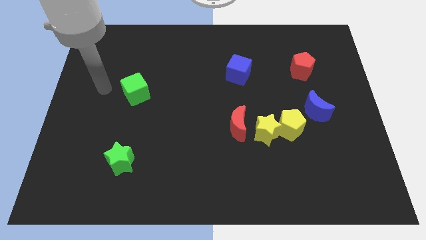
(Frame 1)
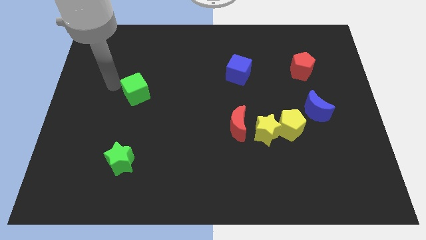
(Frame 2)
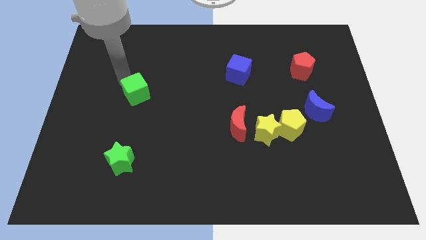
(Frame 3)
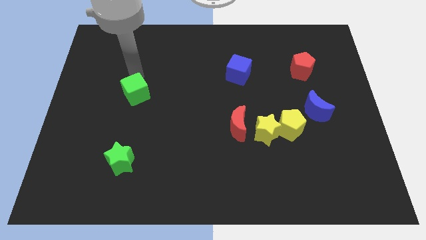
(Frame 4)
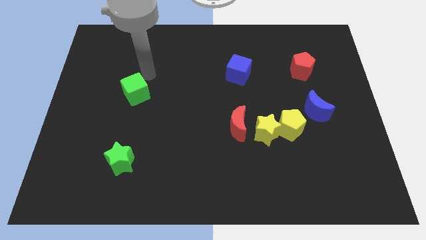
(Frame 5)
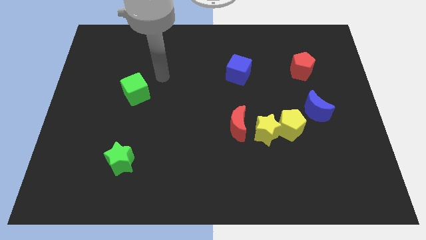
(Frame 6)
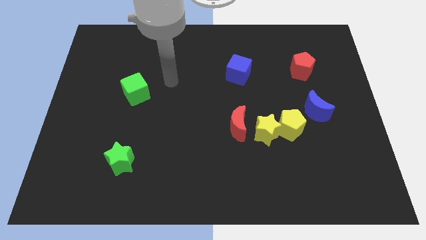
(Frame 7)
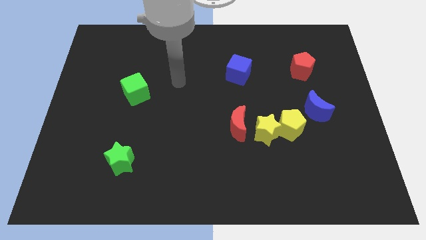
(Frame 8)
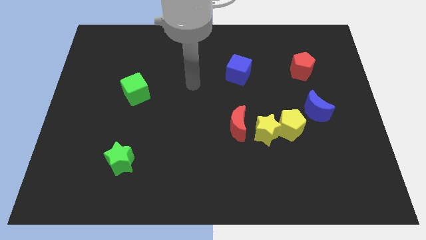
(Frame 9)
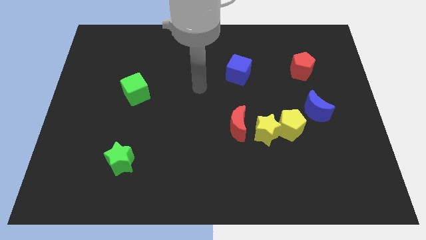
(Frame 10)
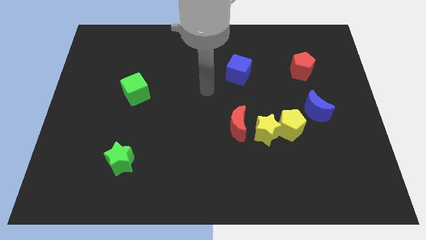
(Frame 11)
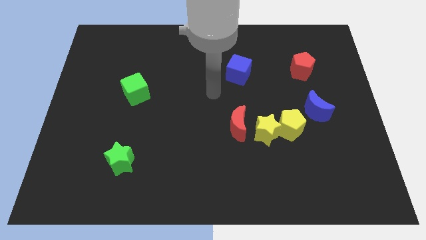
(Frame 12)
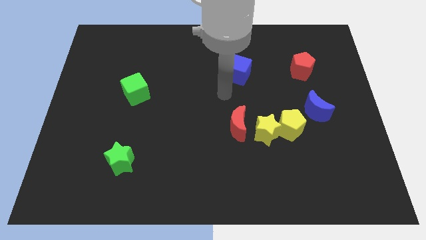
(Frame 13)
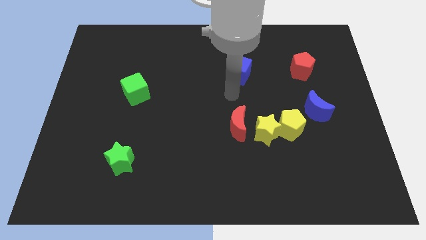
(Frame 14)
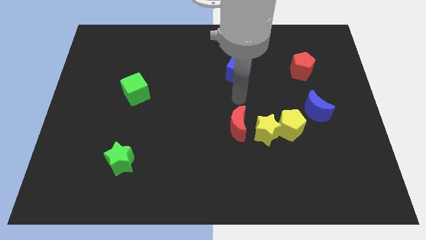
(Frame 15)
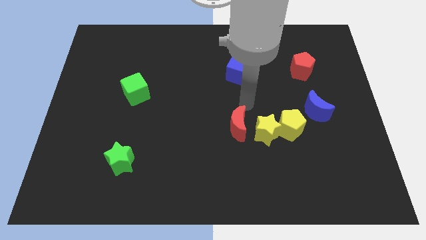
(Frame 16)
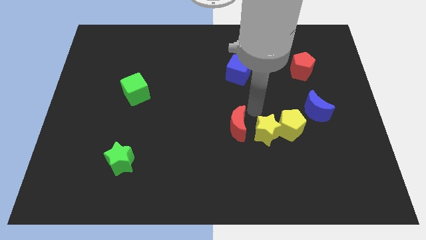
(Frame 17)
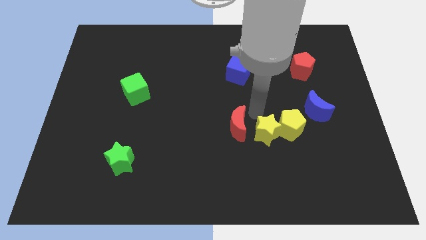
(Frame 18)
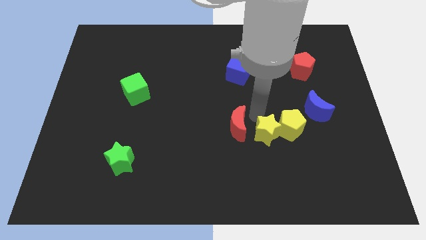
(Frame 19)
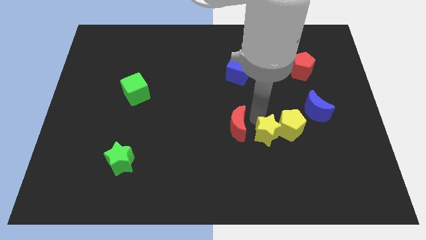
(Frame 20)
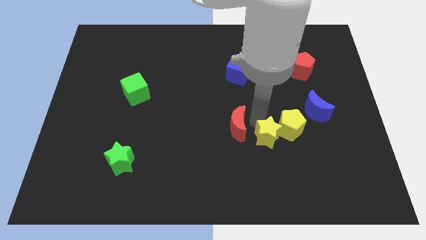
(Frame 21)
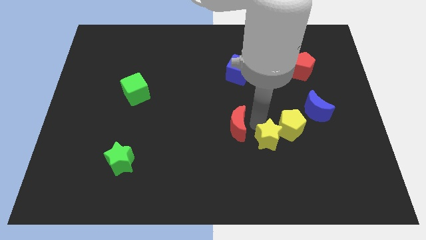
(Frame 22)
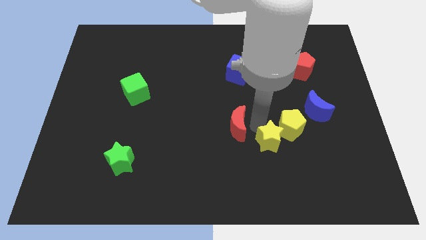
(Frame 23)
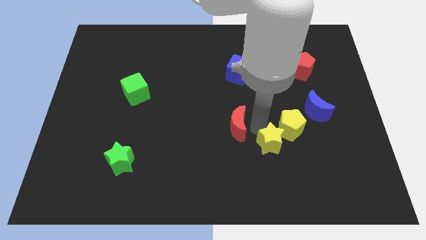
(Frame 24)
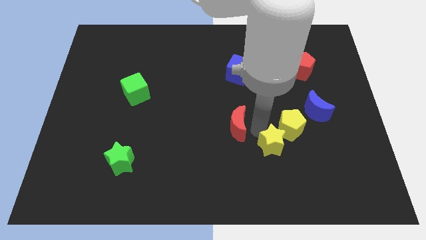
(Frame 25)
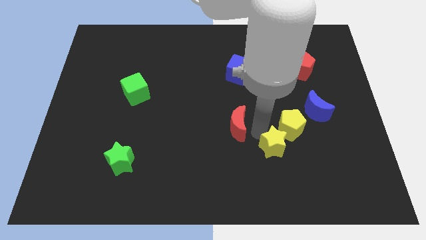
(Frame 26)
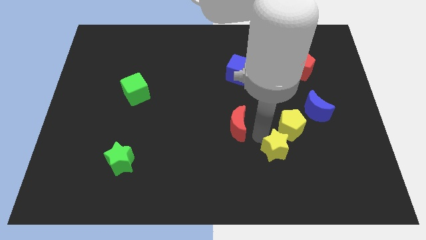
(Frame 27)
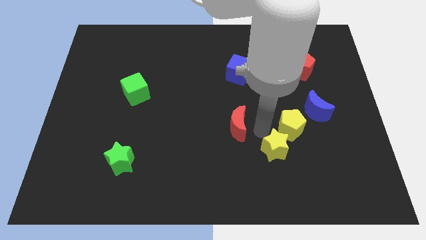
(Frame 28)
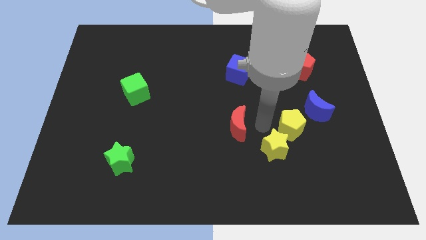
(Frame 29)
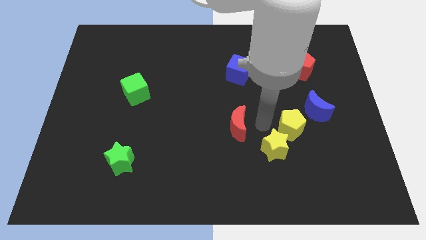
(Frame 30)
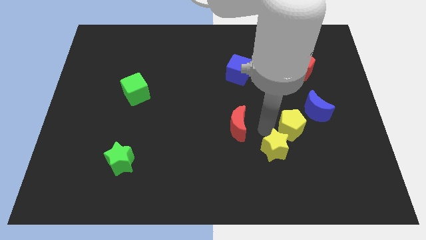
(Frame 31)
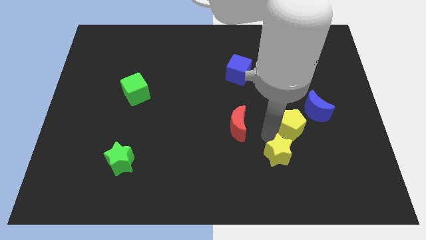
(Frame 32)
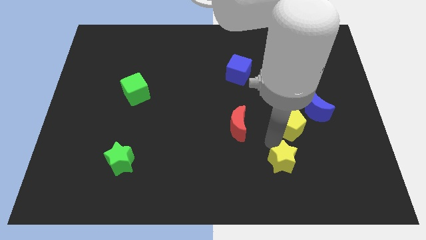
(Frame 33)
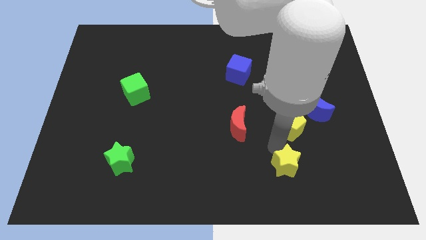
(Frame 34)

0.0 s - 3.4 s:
pull the yellow star apart from the yellow pentagon and red moon

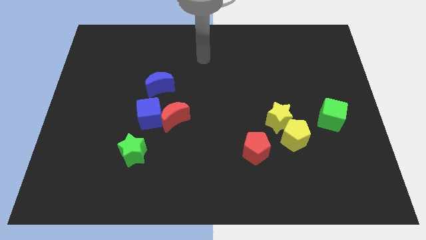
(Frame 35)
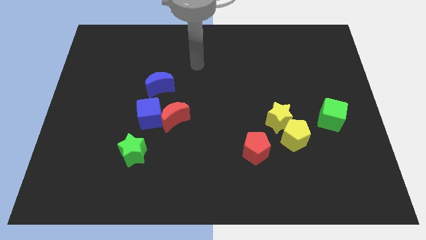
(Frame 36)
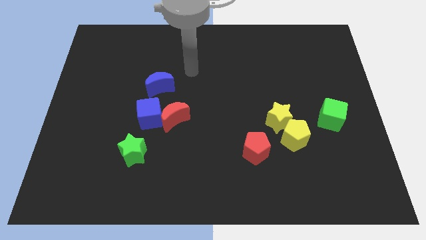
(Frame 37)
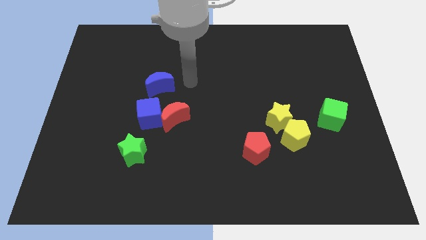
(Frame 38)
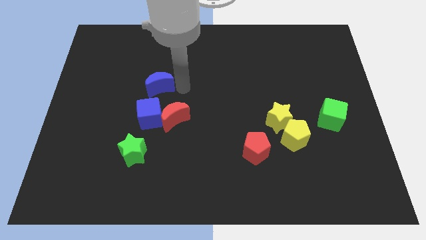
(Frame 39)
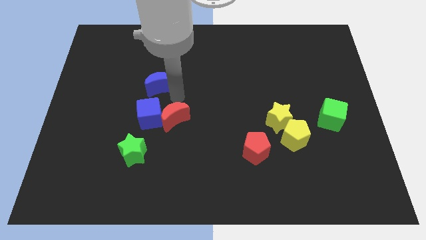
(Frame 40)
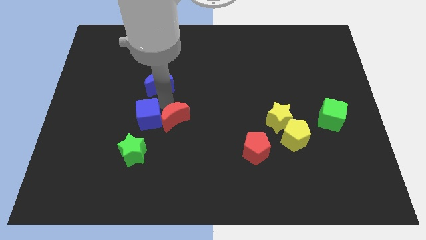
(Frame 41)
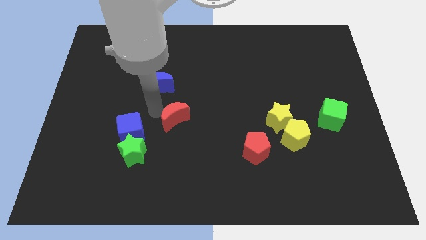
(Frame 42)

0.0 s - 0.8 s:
move the red moon away from the blue cube

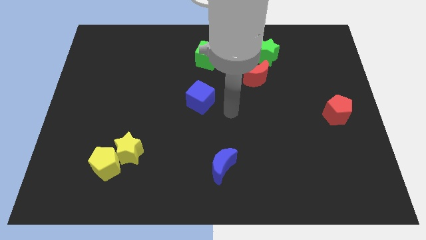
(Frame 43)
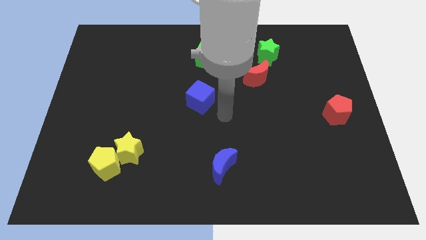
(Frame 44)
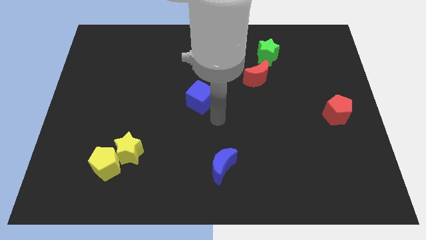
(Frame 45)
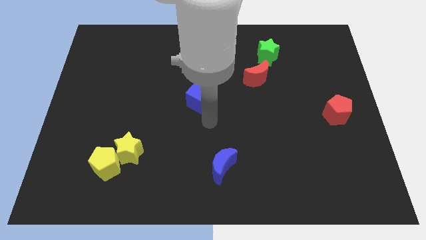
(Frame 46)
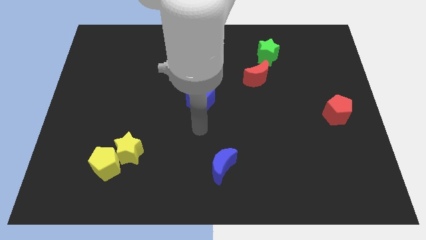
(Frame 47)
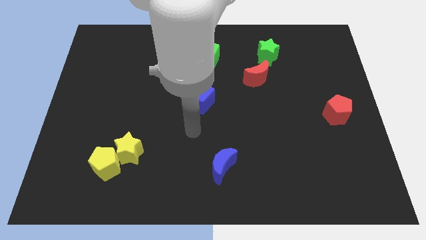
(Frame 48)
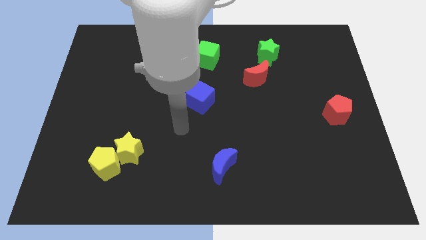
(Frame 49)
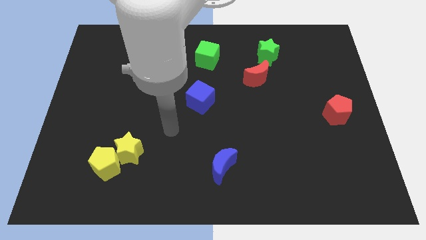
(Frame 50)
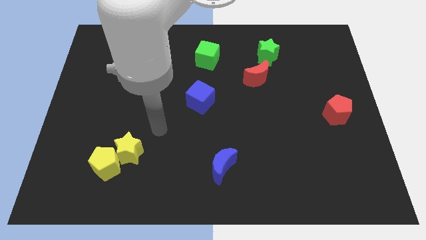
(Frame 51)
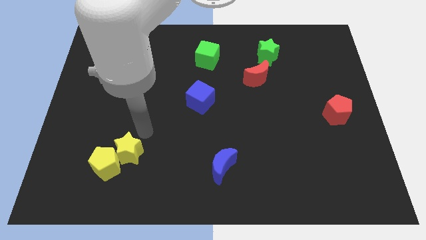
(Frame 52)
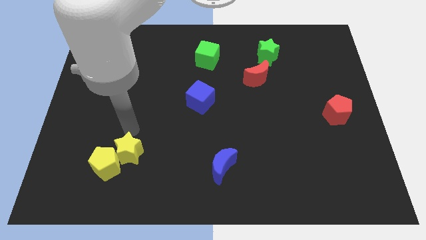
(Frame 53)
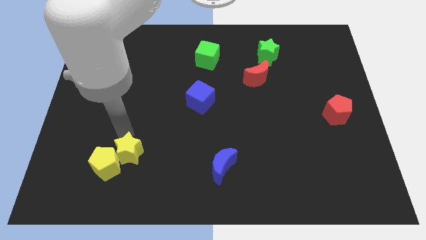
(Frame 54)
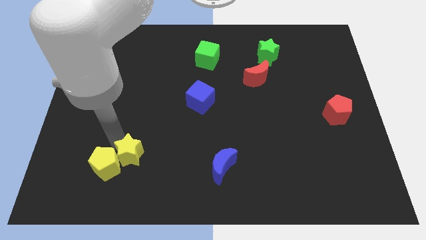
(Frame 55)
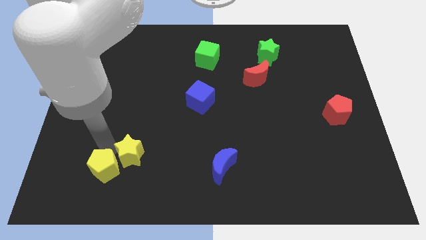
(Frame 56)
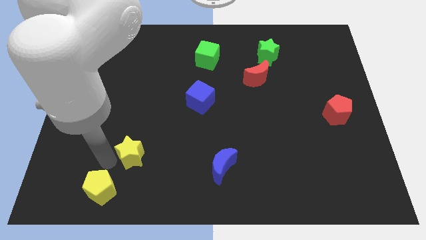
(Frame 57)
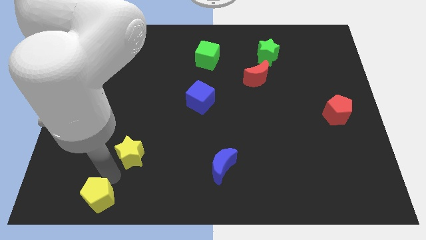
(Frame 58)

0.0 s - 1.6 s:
move the yellow star away from the yellow pentagon

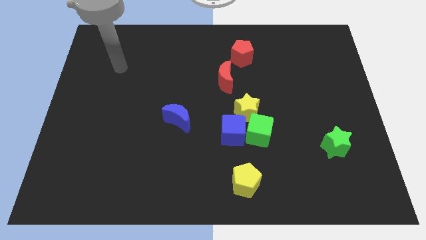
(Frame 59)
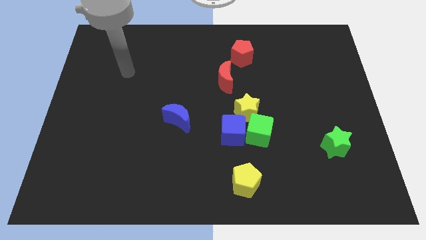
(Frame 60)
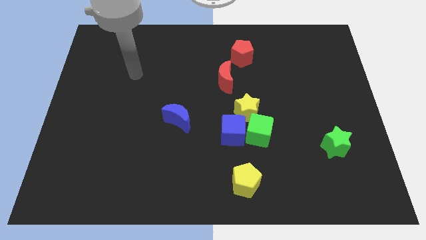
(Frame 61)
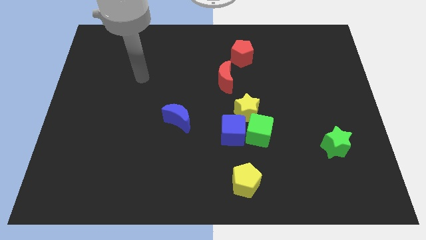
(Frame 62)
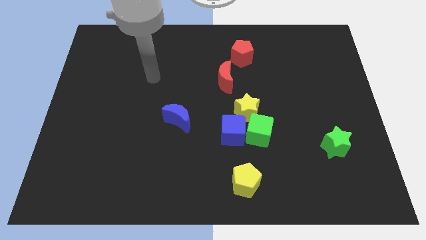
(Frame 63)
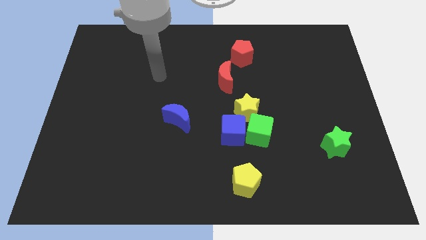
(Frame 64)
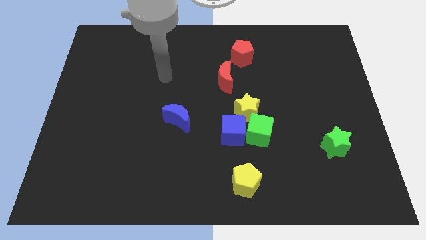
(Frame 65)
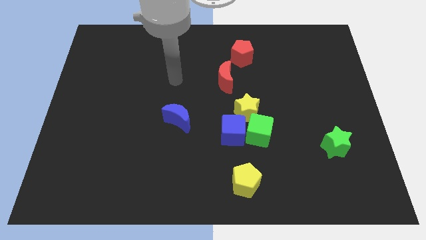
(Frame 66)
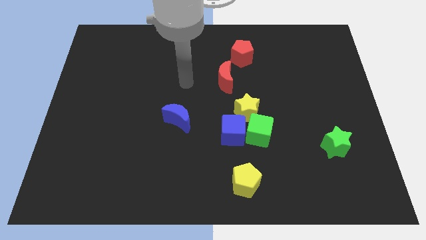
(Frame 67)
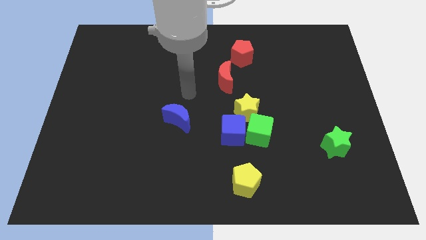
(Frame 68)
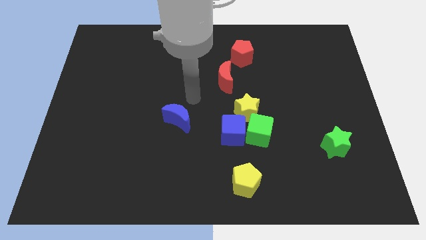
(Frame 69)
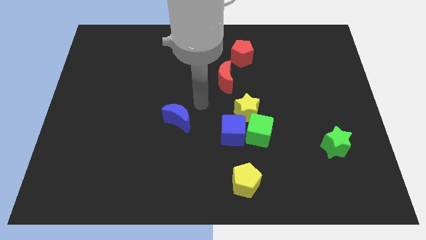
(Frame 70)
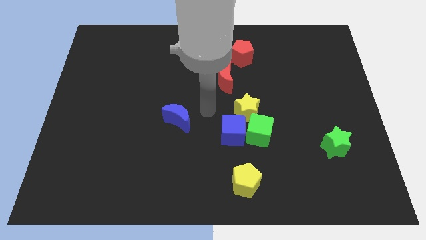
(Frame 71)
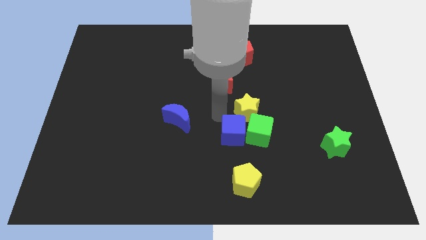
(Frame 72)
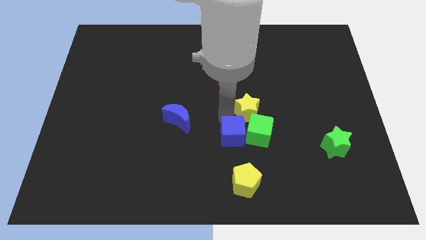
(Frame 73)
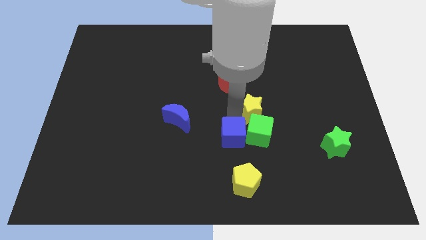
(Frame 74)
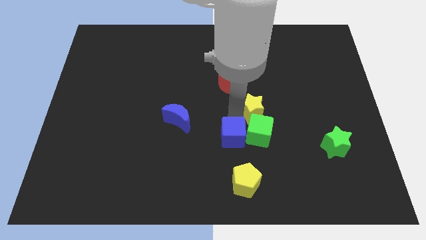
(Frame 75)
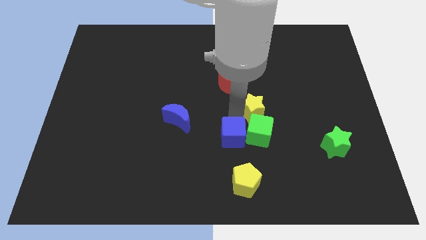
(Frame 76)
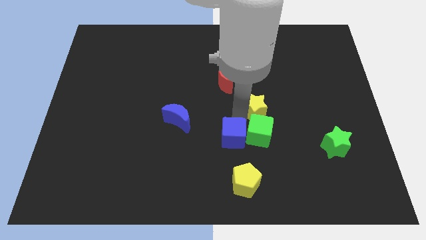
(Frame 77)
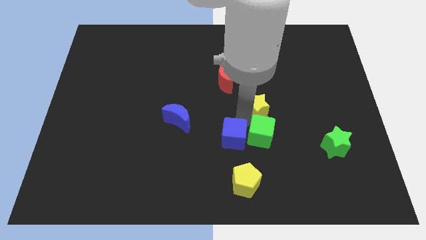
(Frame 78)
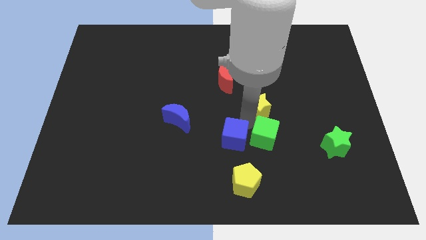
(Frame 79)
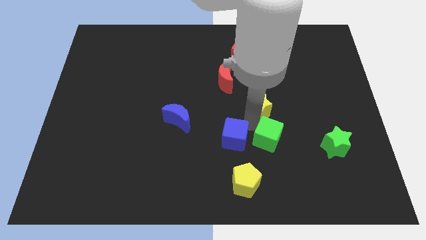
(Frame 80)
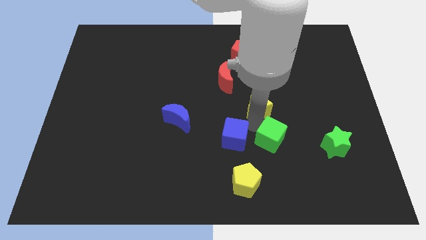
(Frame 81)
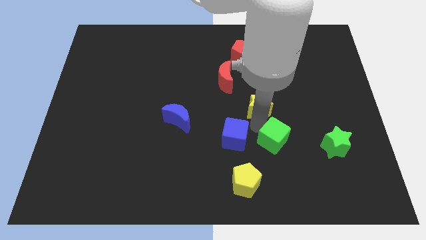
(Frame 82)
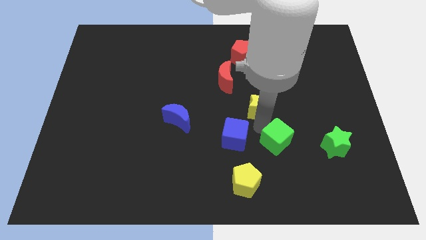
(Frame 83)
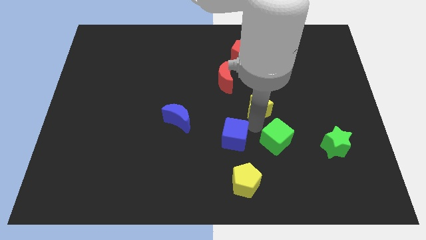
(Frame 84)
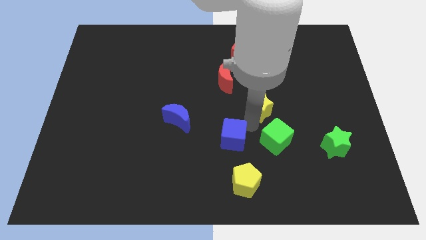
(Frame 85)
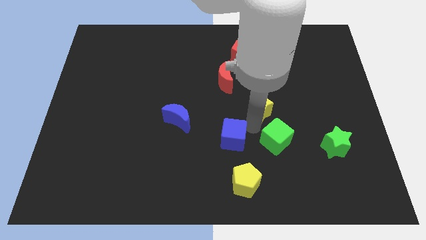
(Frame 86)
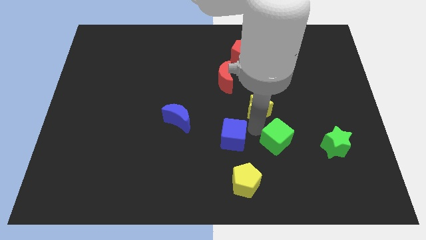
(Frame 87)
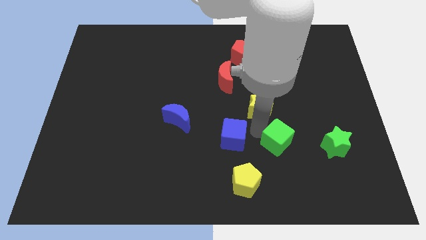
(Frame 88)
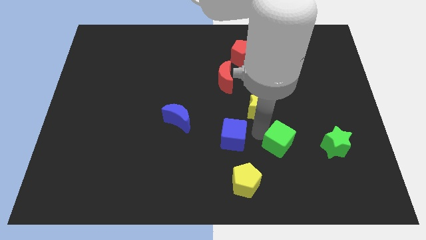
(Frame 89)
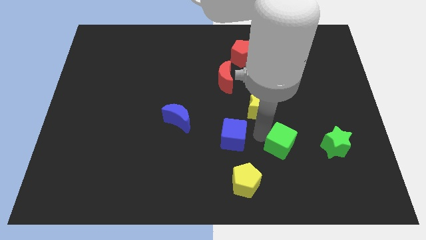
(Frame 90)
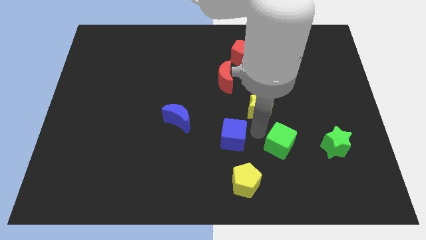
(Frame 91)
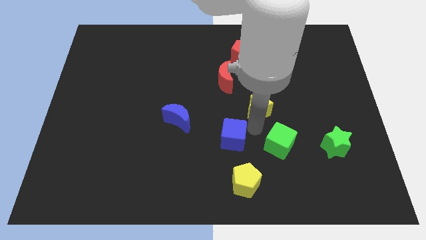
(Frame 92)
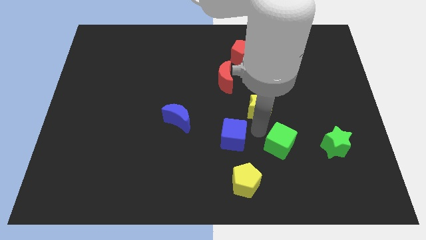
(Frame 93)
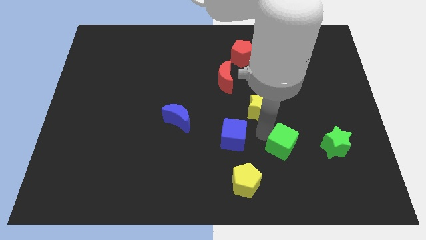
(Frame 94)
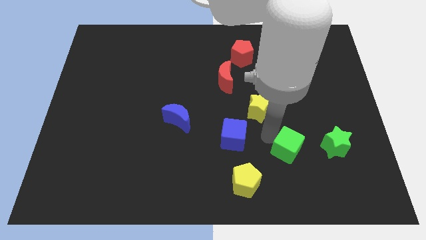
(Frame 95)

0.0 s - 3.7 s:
pull the green cube apart from the blue cube and yellow star
